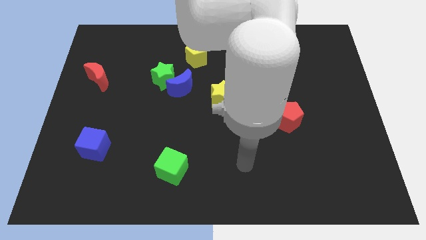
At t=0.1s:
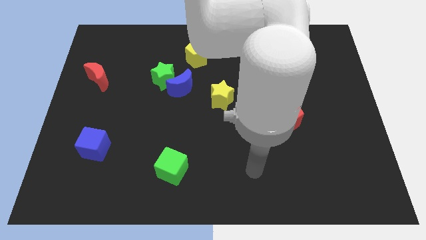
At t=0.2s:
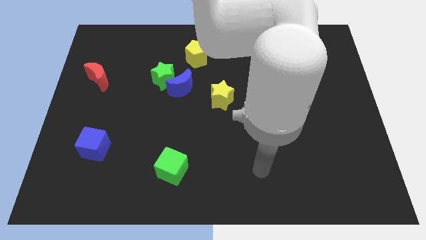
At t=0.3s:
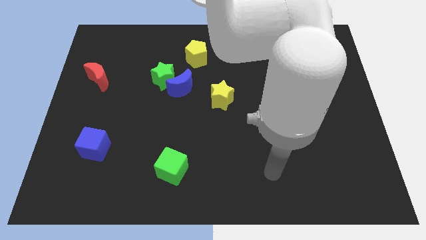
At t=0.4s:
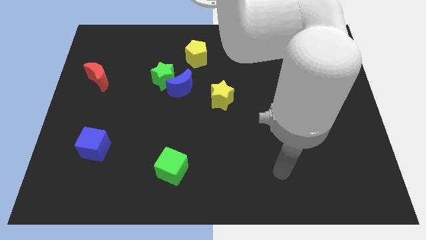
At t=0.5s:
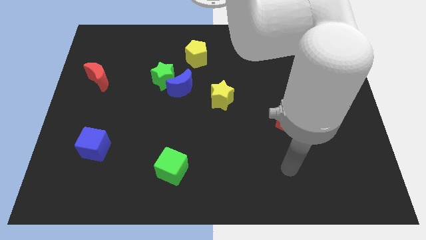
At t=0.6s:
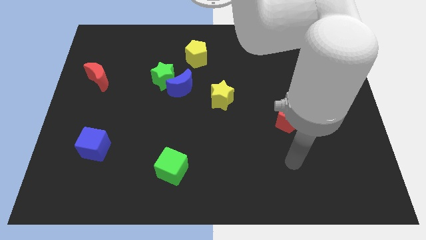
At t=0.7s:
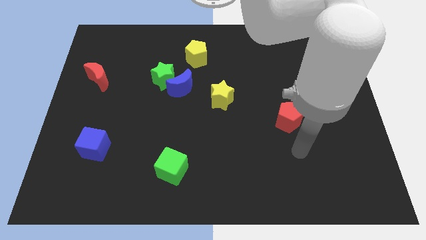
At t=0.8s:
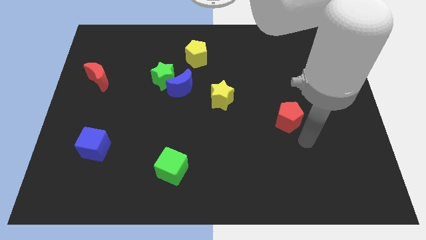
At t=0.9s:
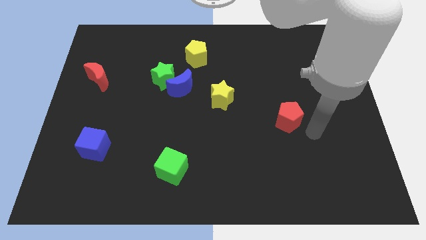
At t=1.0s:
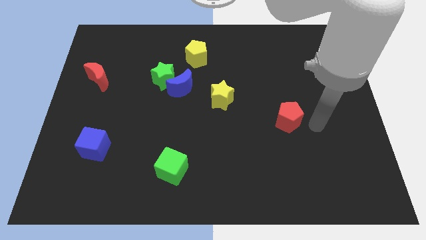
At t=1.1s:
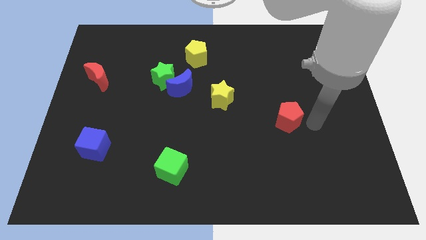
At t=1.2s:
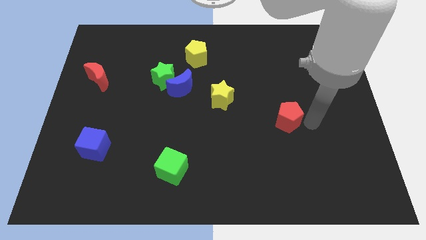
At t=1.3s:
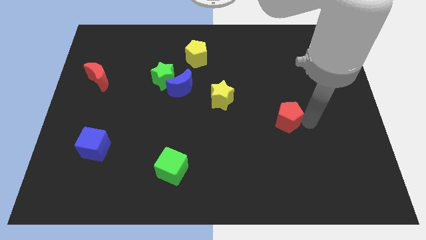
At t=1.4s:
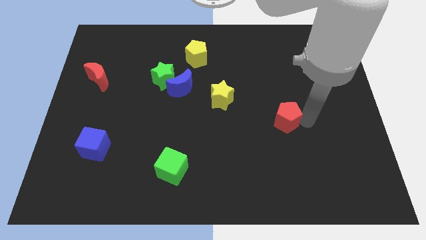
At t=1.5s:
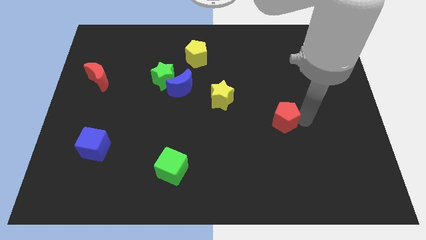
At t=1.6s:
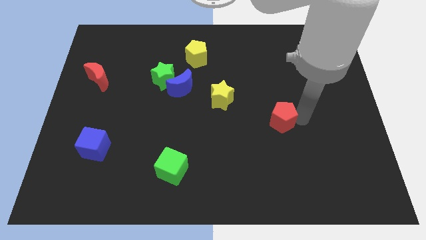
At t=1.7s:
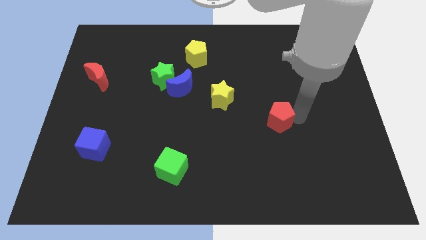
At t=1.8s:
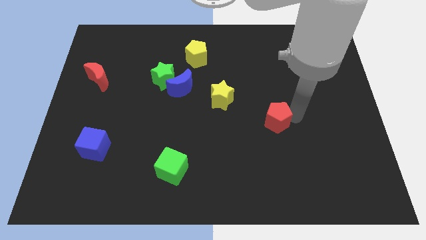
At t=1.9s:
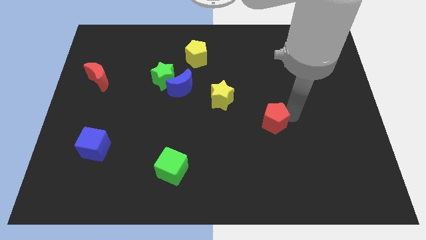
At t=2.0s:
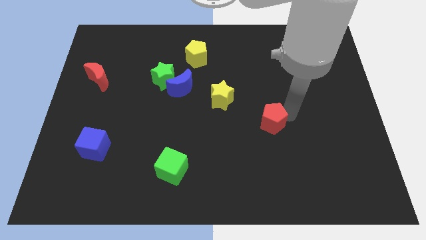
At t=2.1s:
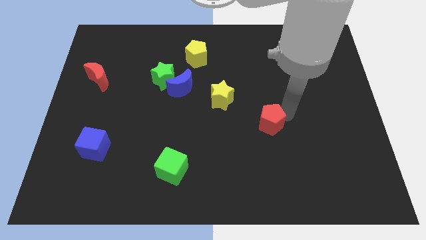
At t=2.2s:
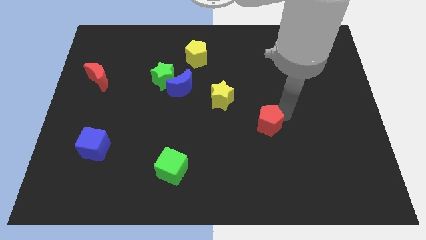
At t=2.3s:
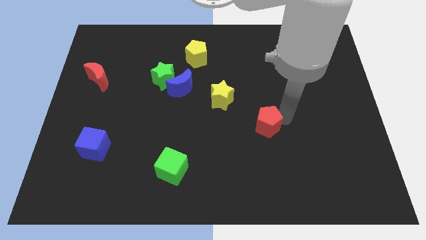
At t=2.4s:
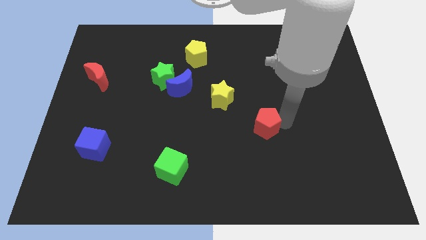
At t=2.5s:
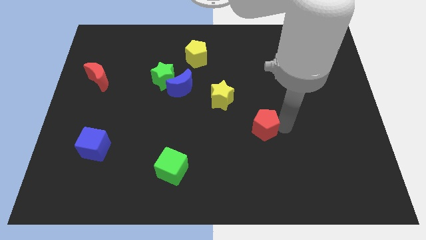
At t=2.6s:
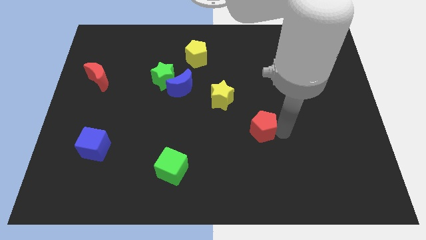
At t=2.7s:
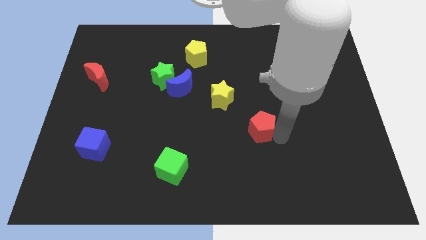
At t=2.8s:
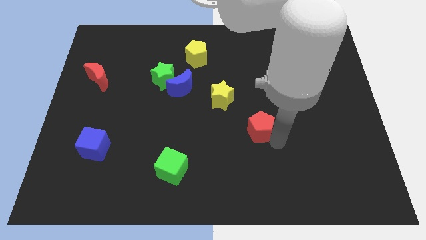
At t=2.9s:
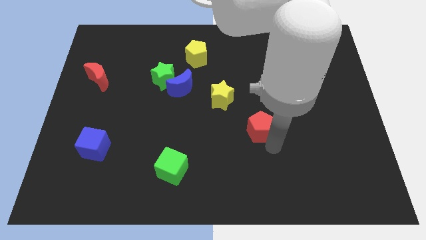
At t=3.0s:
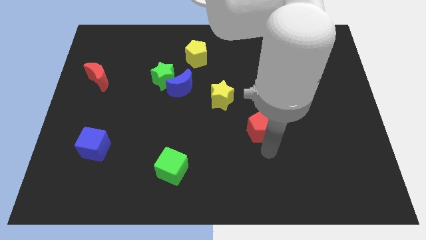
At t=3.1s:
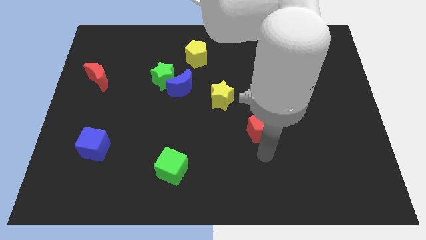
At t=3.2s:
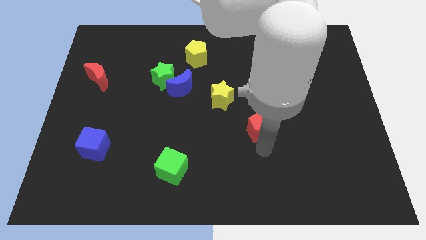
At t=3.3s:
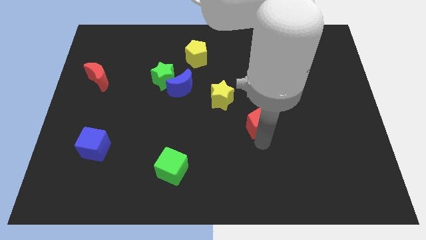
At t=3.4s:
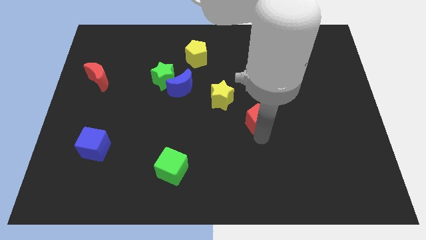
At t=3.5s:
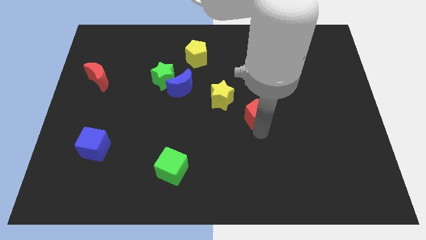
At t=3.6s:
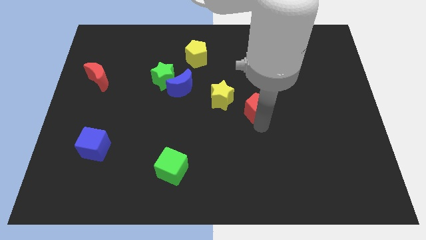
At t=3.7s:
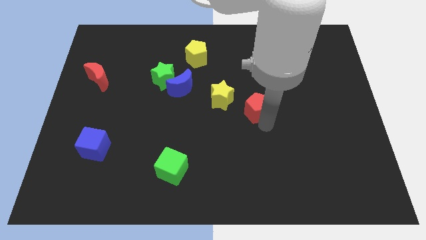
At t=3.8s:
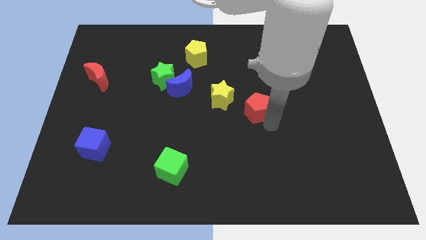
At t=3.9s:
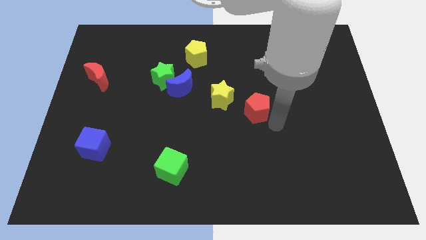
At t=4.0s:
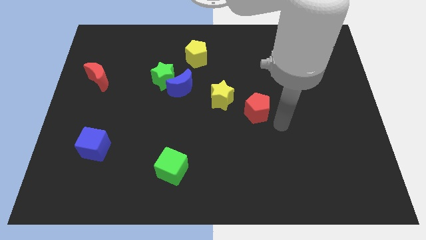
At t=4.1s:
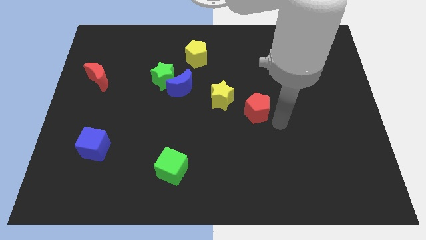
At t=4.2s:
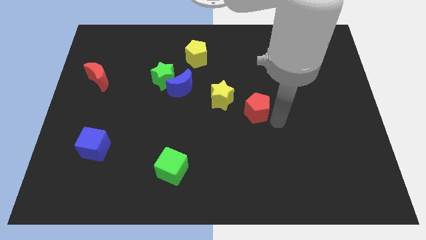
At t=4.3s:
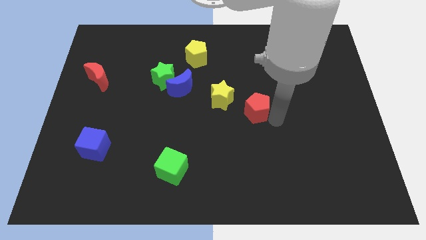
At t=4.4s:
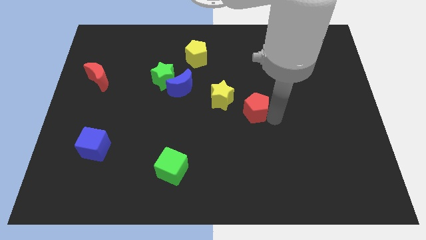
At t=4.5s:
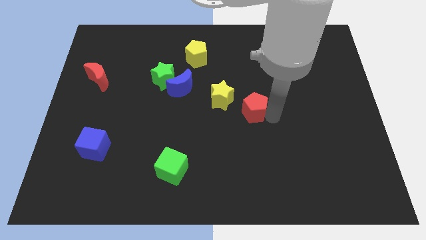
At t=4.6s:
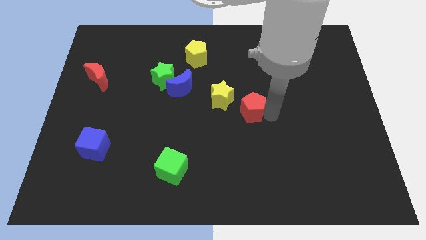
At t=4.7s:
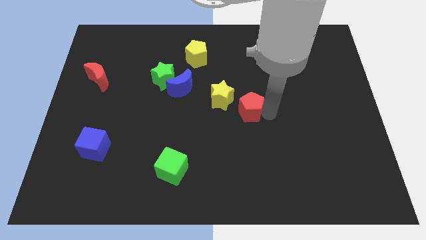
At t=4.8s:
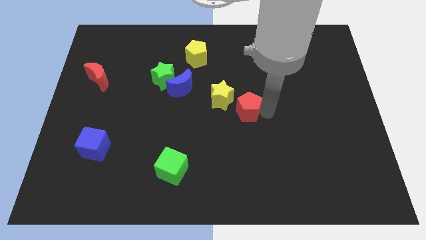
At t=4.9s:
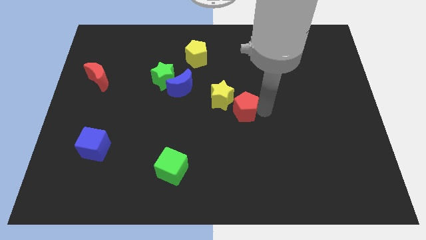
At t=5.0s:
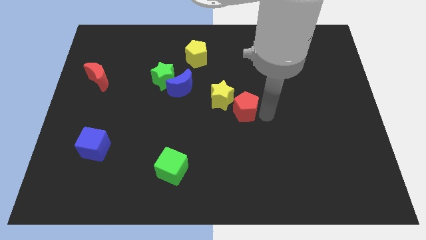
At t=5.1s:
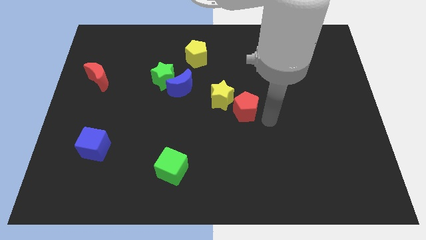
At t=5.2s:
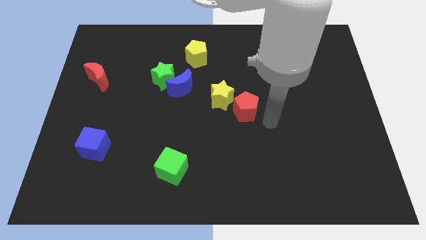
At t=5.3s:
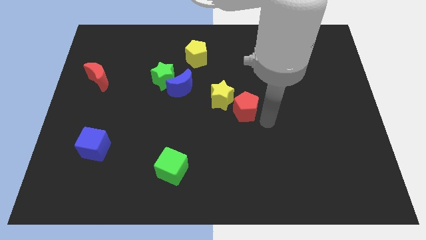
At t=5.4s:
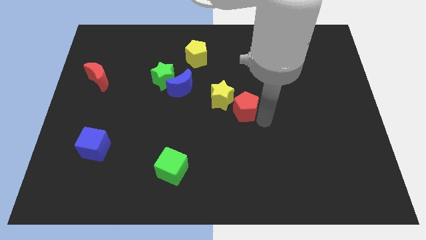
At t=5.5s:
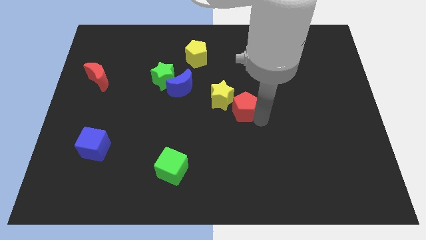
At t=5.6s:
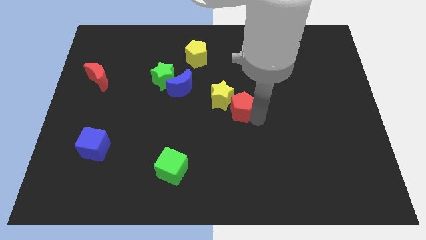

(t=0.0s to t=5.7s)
move the red pentagon towards the yellow star
